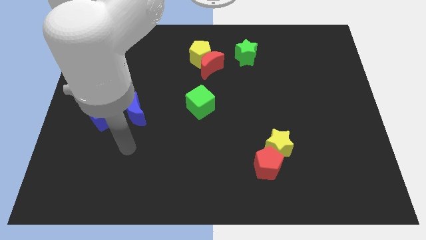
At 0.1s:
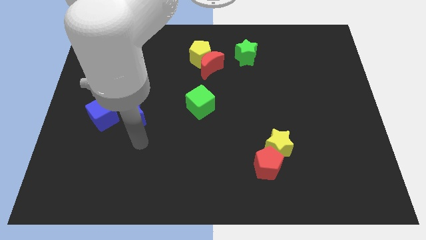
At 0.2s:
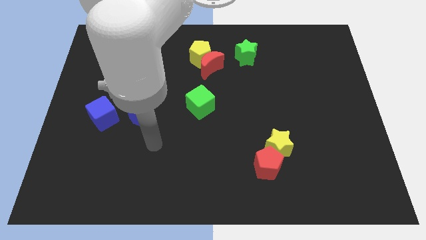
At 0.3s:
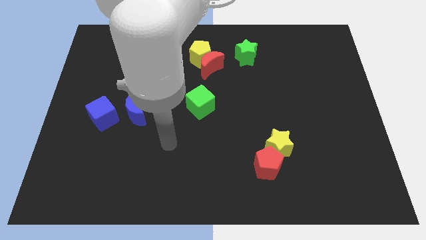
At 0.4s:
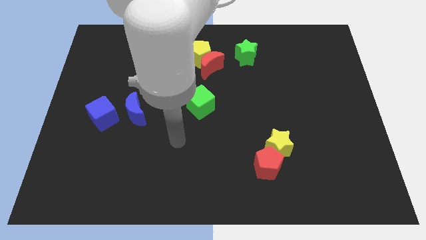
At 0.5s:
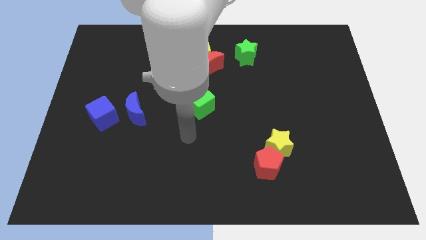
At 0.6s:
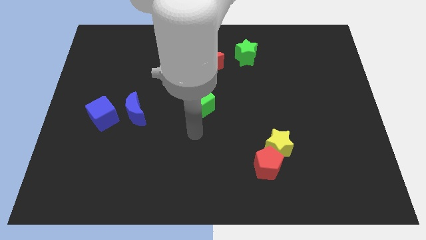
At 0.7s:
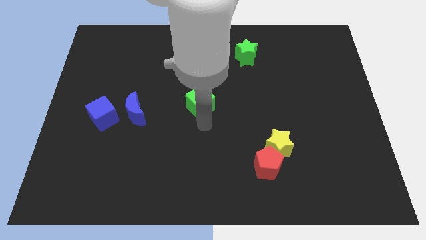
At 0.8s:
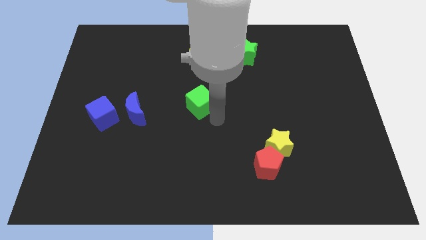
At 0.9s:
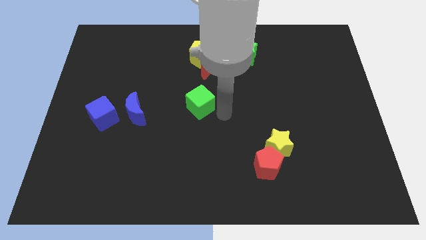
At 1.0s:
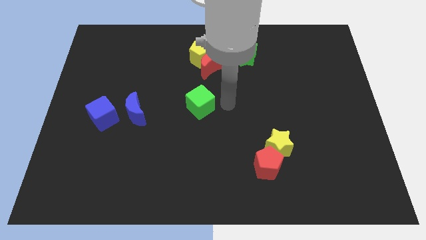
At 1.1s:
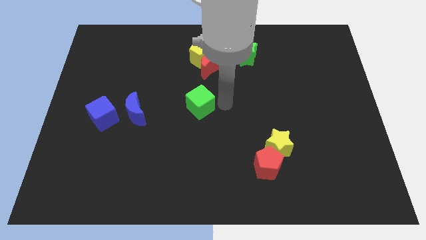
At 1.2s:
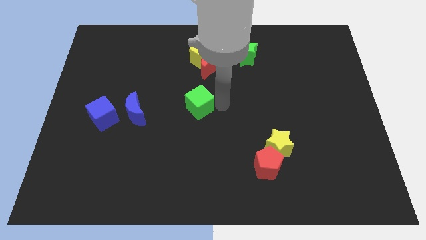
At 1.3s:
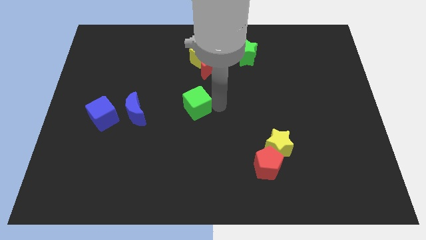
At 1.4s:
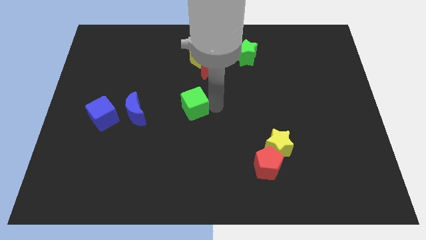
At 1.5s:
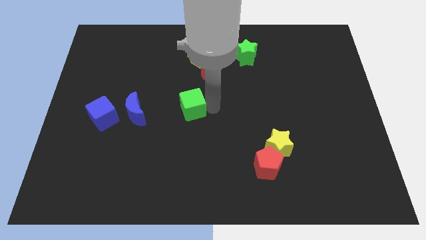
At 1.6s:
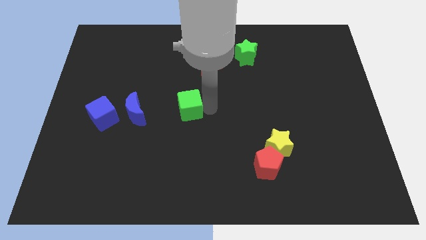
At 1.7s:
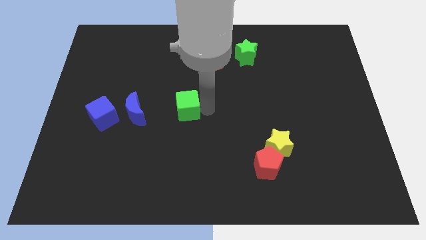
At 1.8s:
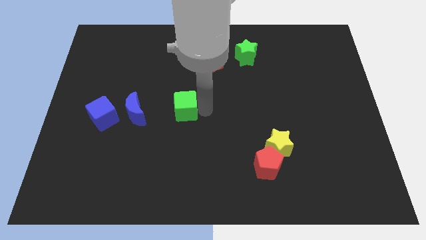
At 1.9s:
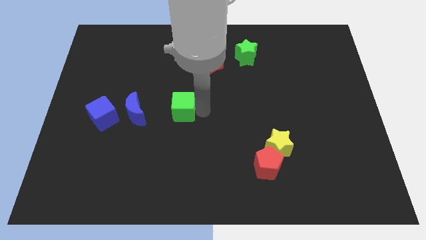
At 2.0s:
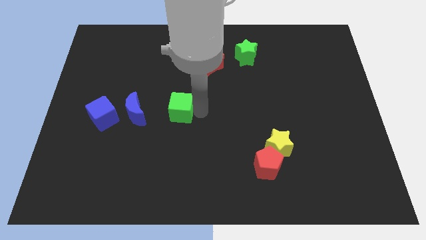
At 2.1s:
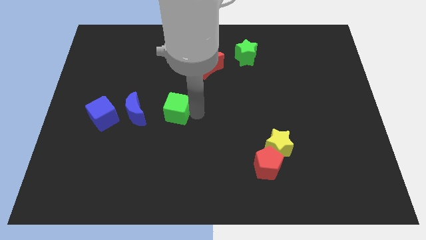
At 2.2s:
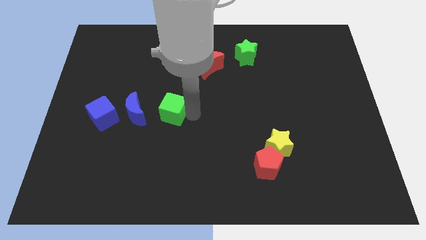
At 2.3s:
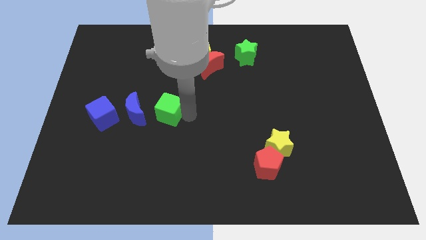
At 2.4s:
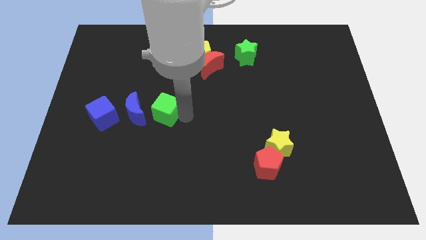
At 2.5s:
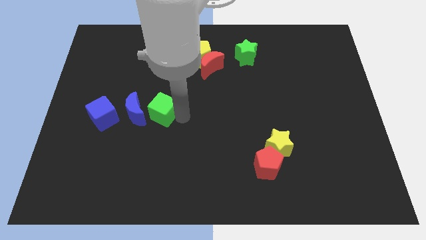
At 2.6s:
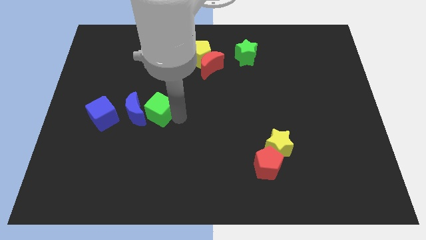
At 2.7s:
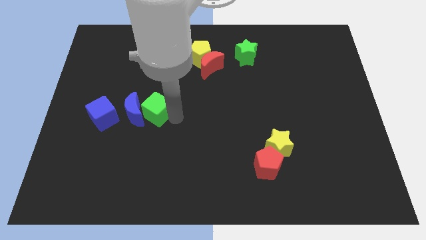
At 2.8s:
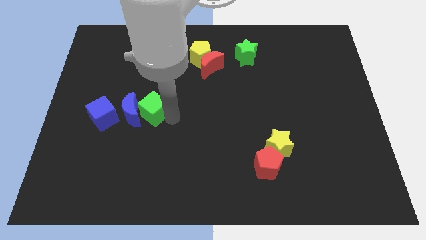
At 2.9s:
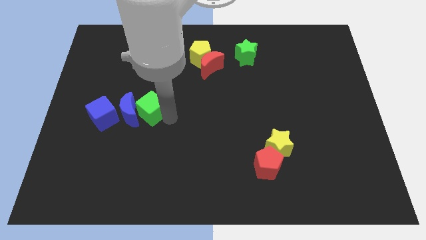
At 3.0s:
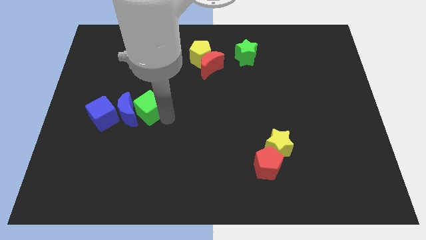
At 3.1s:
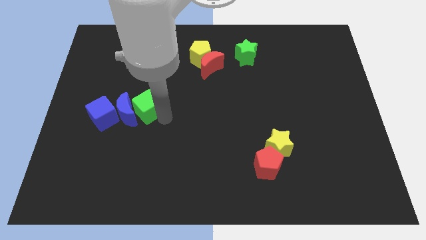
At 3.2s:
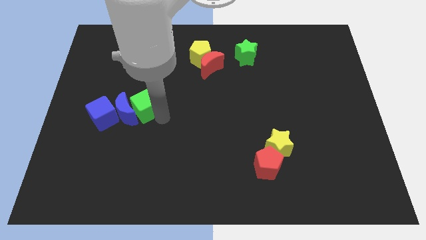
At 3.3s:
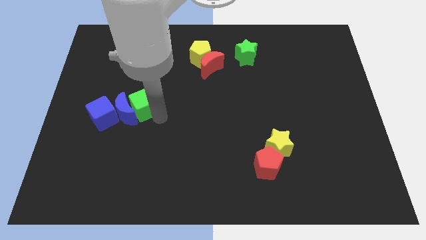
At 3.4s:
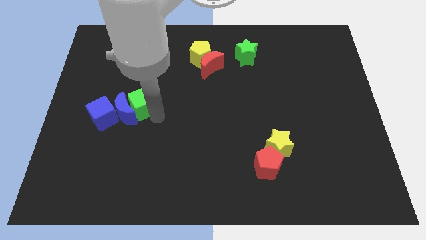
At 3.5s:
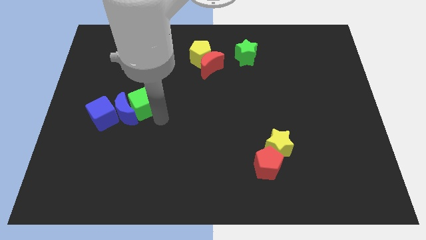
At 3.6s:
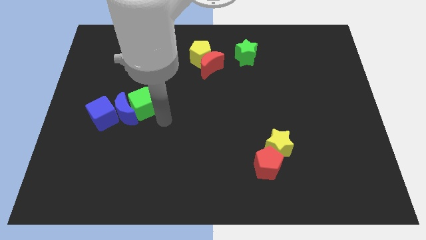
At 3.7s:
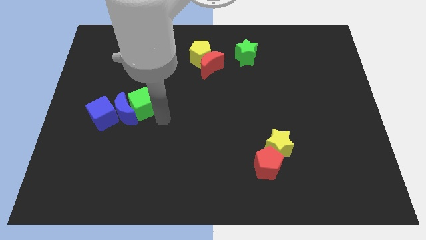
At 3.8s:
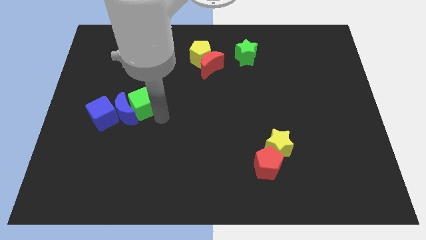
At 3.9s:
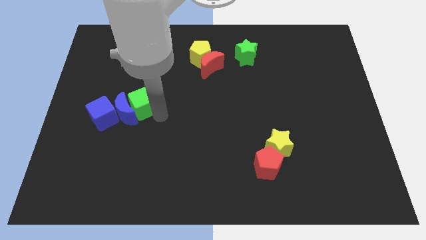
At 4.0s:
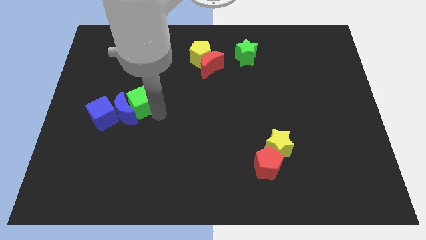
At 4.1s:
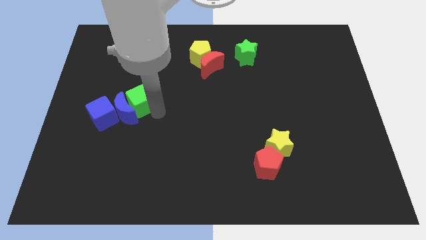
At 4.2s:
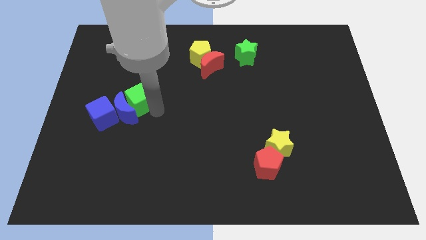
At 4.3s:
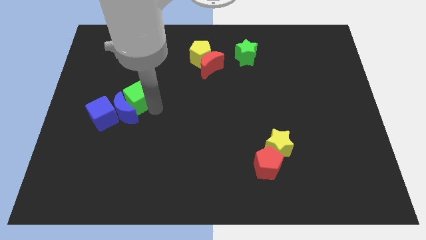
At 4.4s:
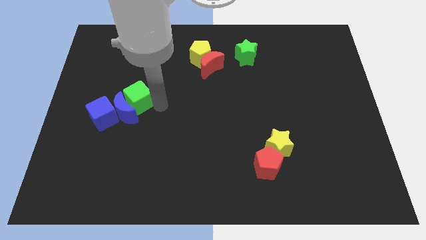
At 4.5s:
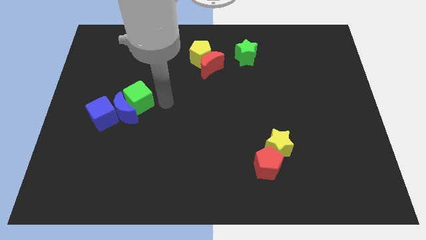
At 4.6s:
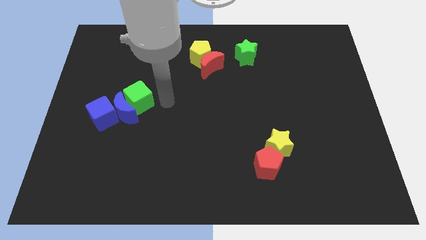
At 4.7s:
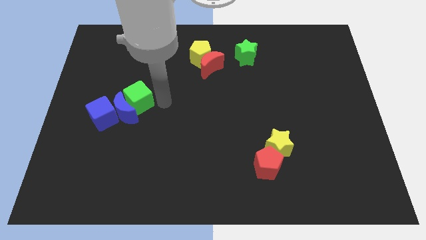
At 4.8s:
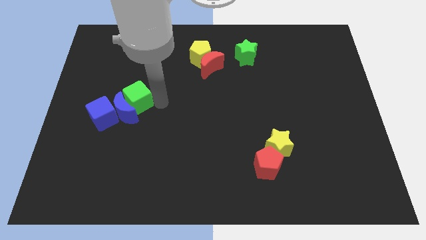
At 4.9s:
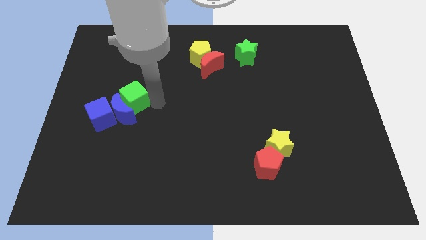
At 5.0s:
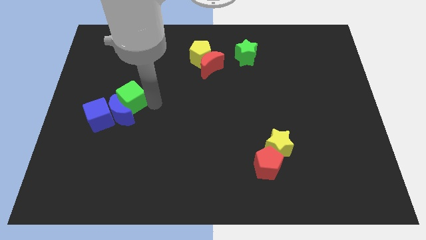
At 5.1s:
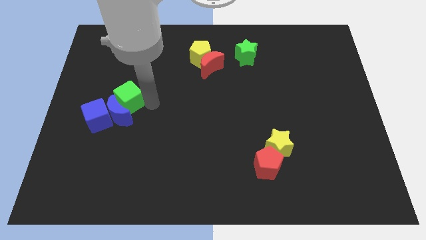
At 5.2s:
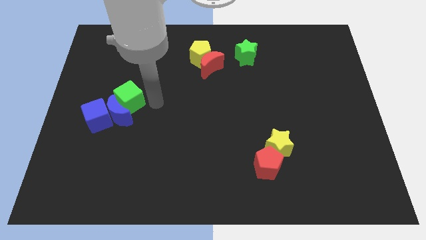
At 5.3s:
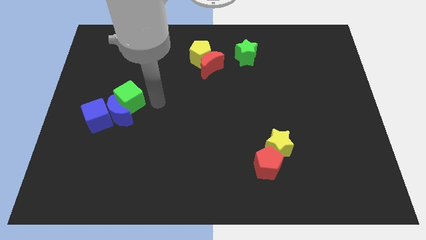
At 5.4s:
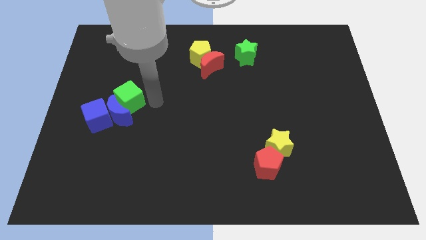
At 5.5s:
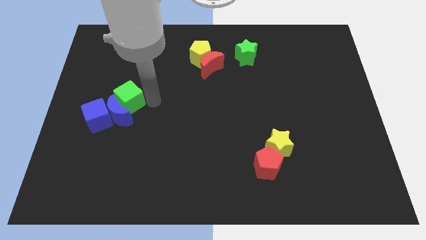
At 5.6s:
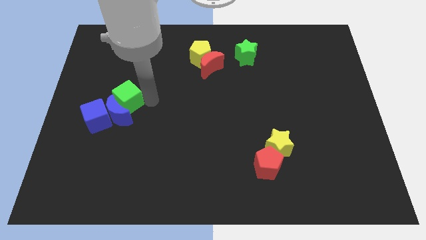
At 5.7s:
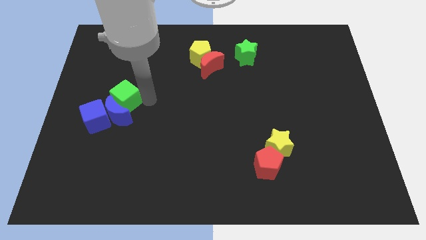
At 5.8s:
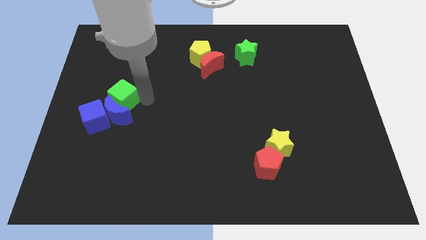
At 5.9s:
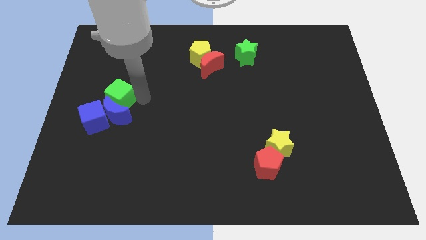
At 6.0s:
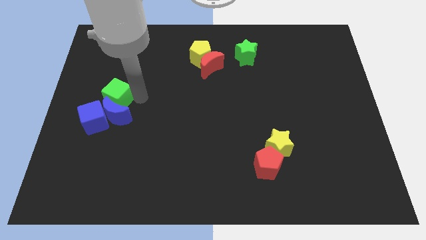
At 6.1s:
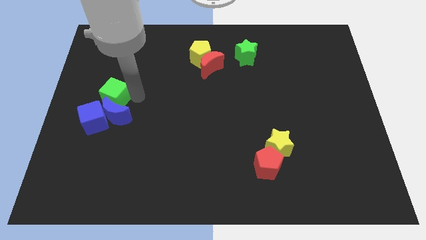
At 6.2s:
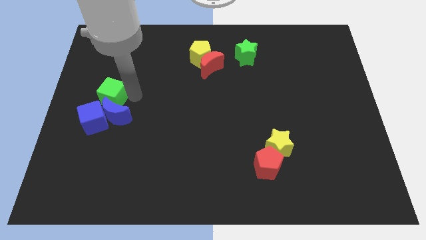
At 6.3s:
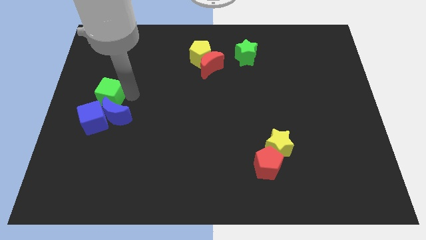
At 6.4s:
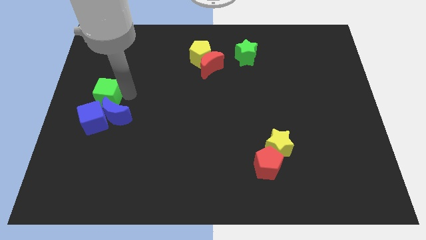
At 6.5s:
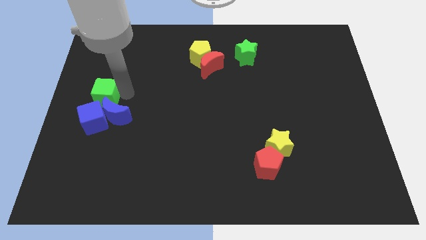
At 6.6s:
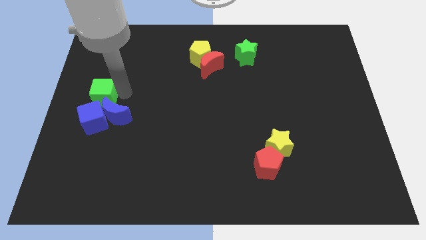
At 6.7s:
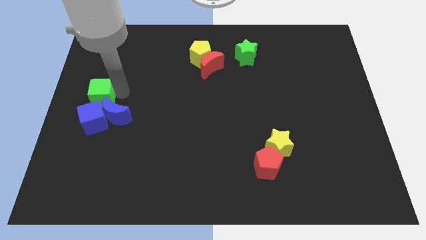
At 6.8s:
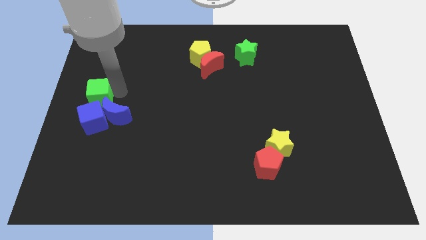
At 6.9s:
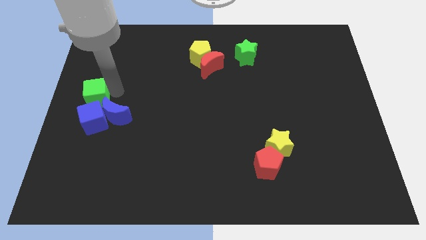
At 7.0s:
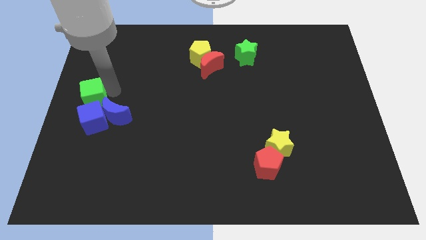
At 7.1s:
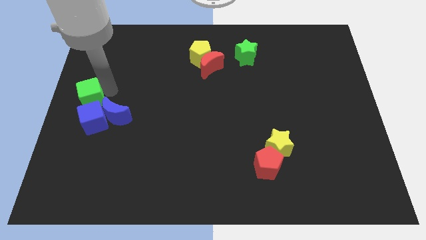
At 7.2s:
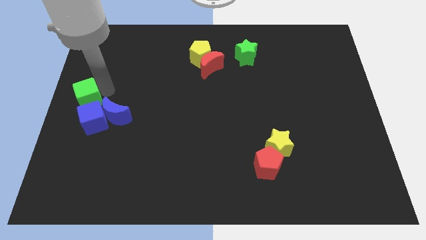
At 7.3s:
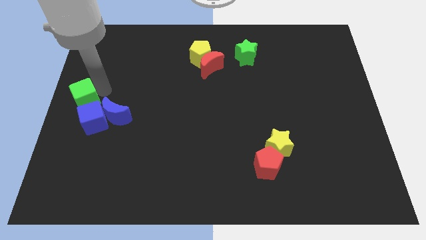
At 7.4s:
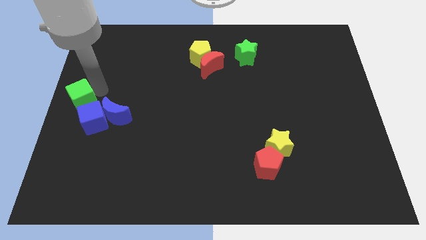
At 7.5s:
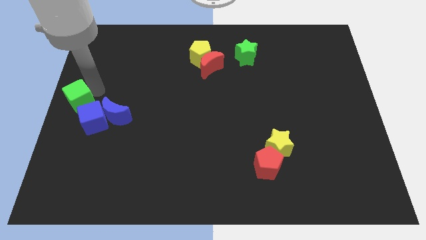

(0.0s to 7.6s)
put the green cube left of the blue moon
